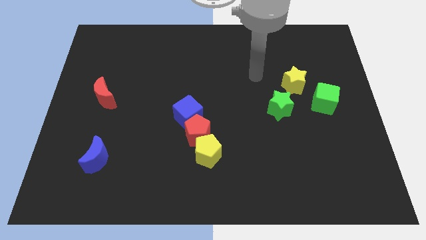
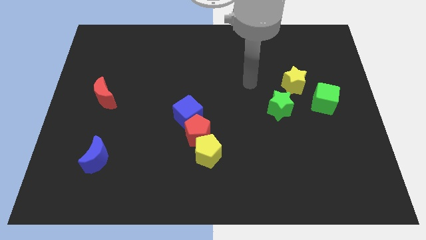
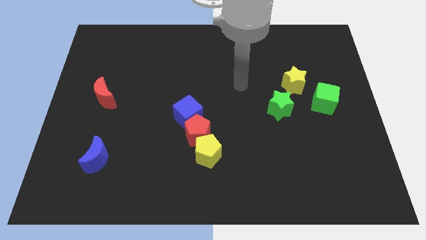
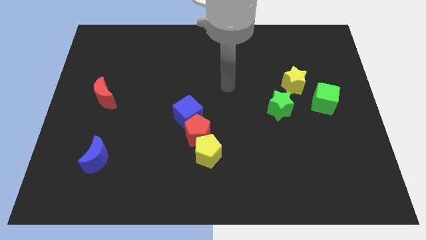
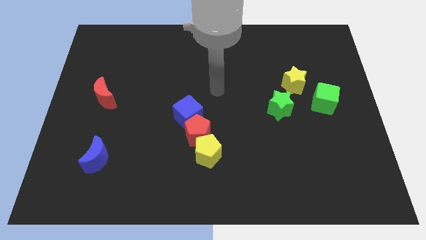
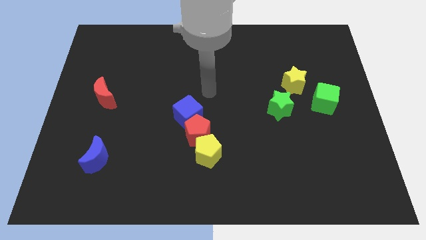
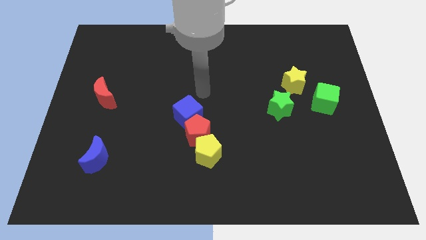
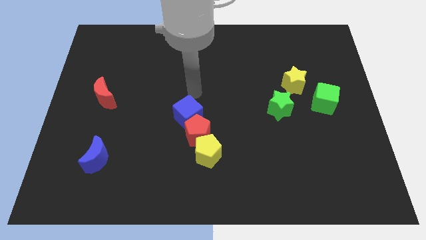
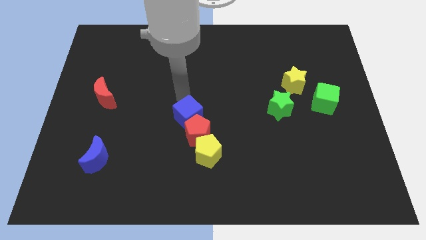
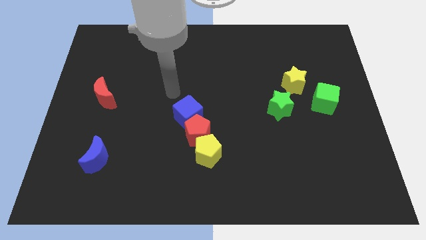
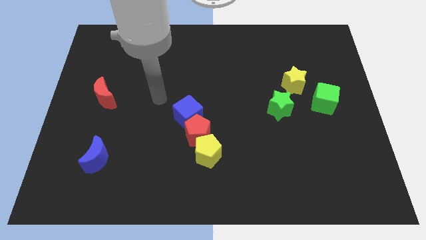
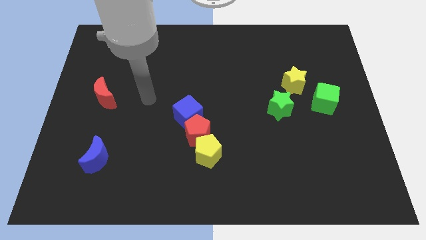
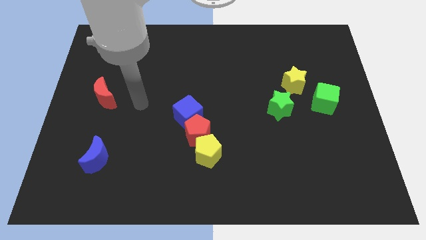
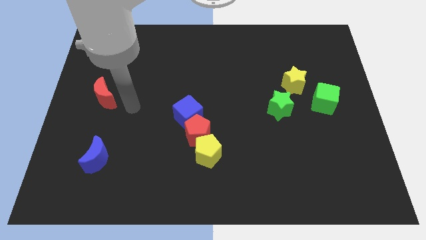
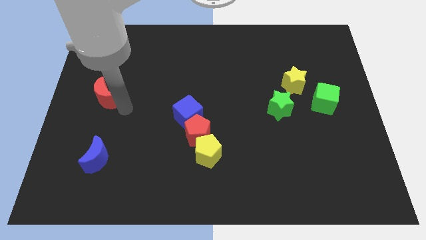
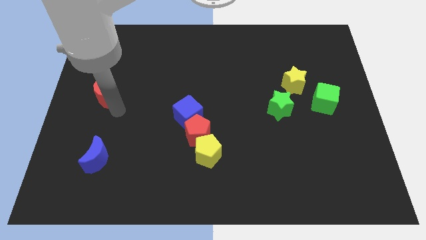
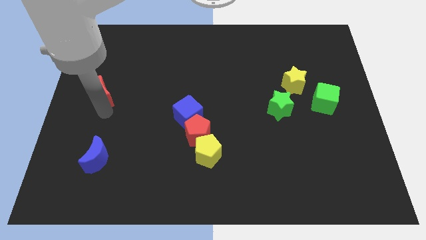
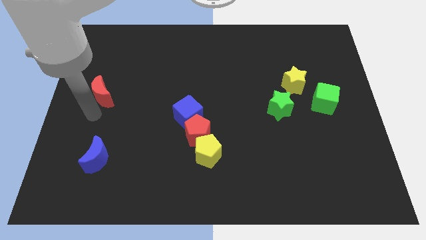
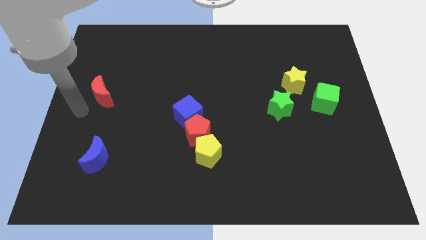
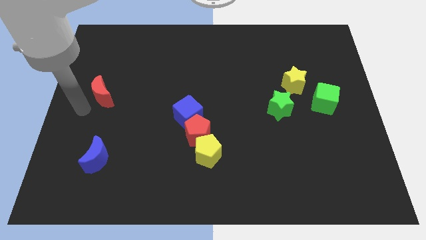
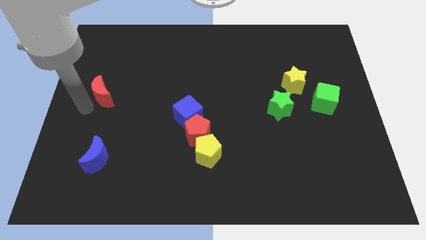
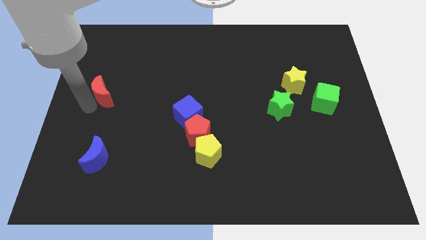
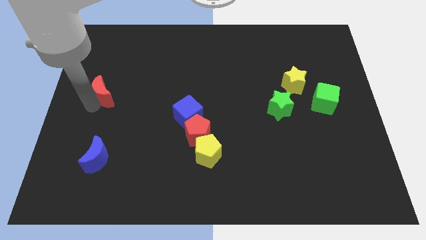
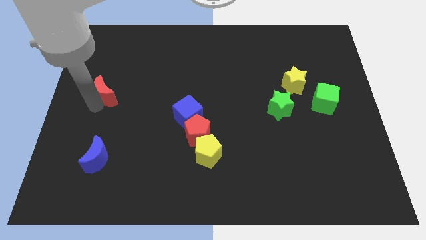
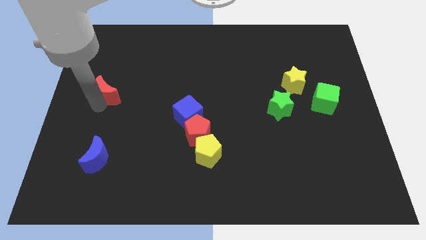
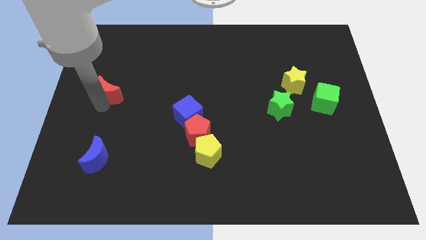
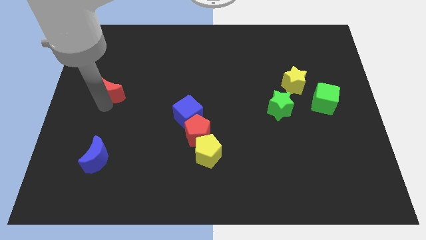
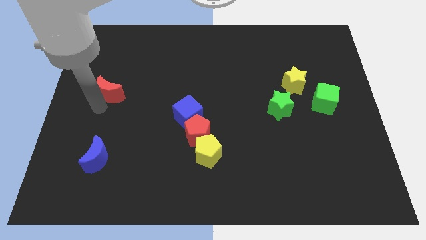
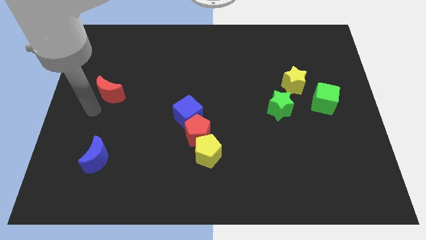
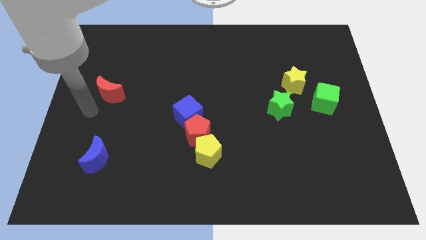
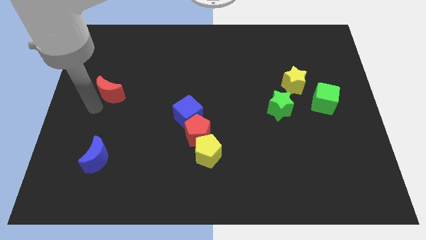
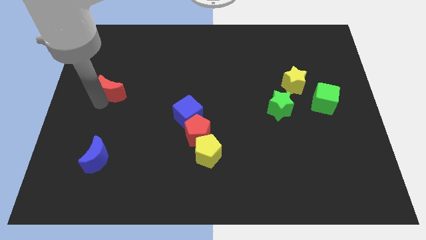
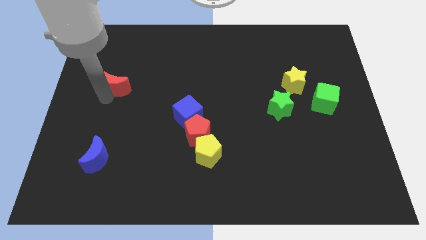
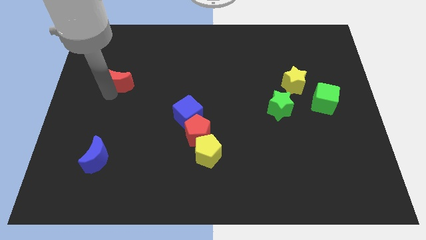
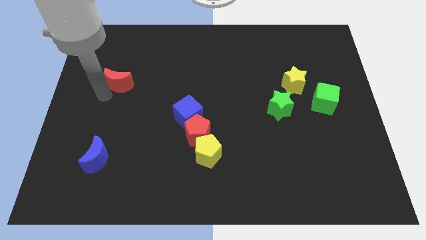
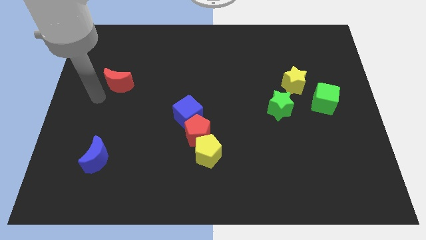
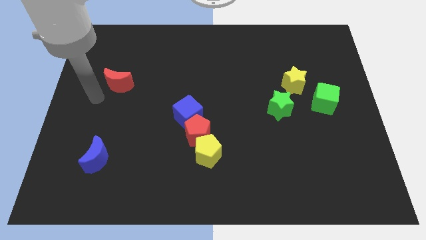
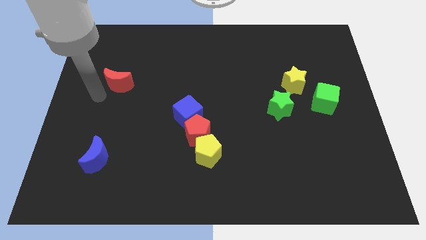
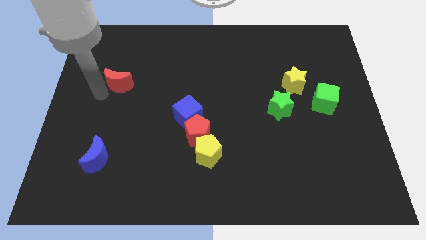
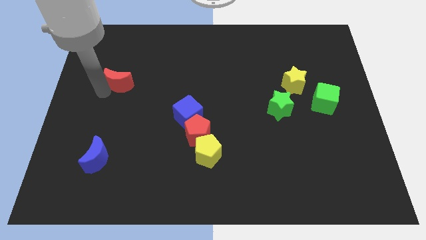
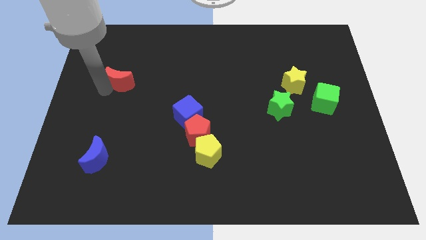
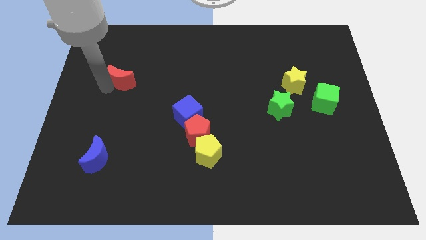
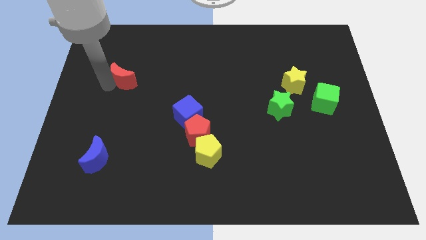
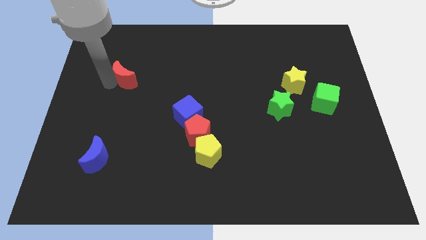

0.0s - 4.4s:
push the red moon up and then to the right a little bit

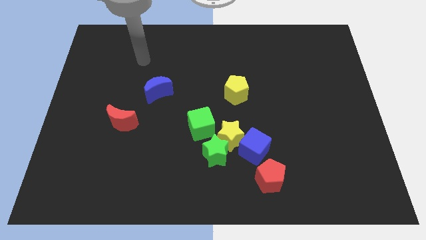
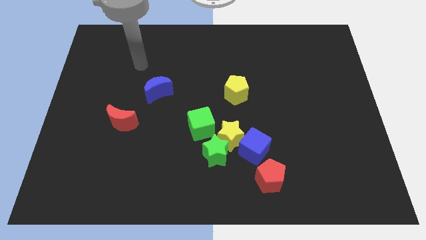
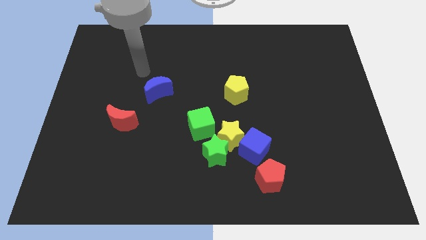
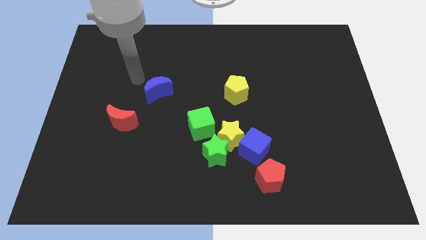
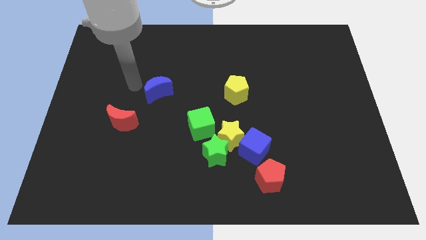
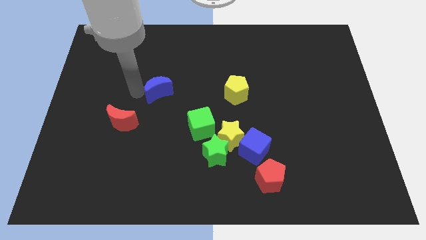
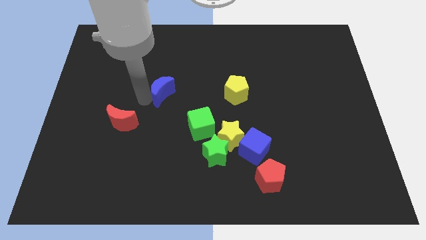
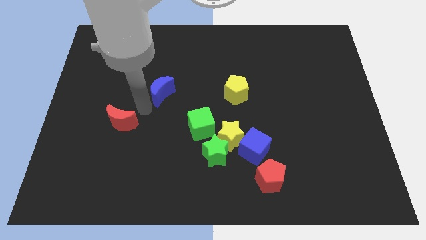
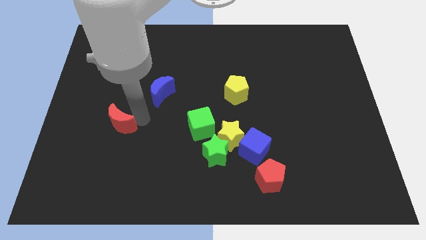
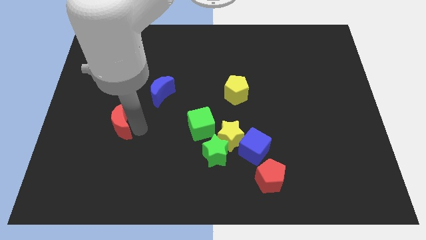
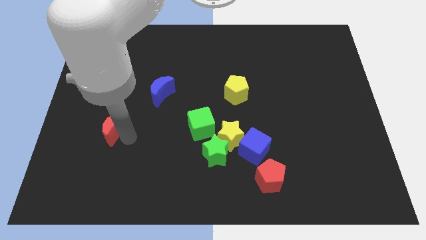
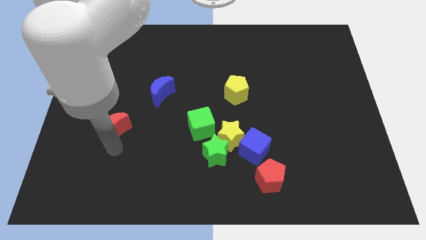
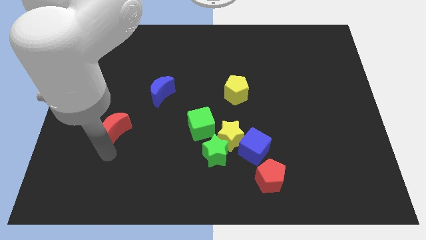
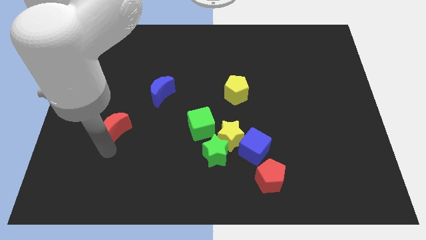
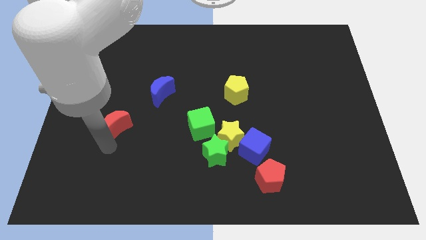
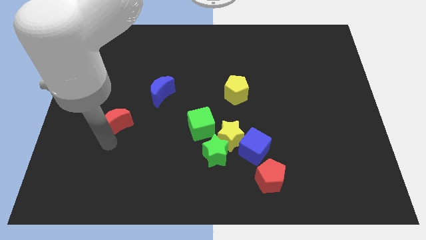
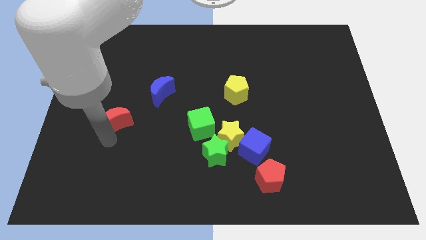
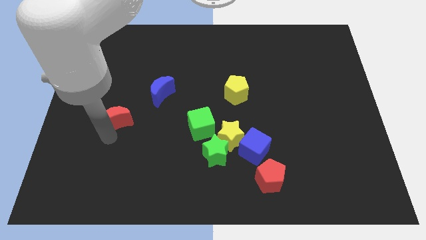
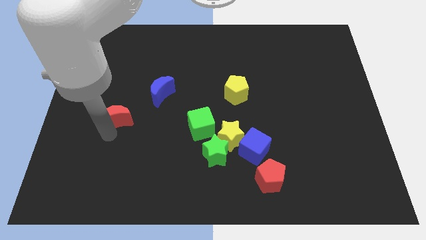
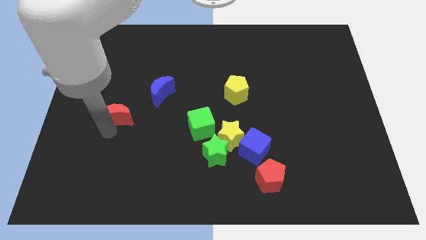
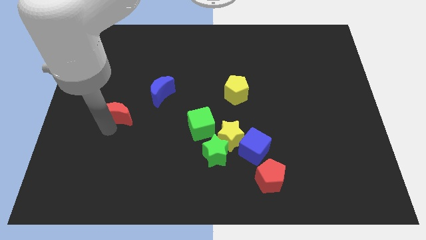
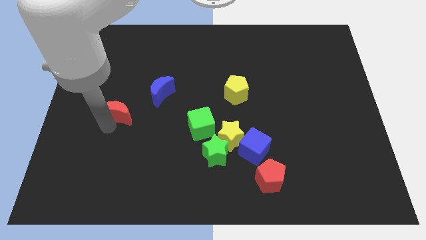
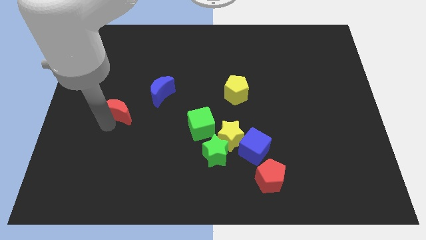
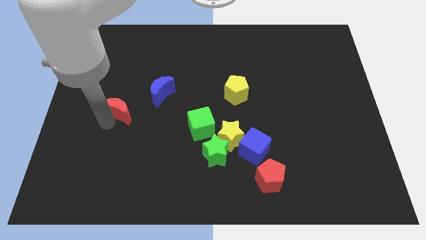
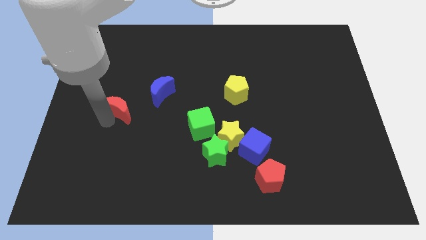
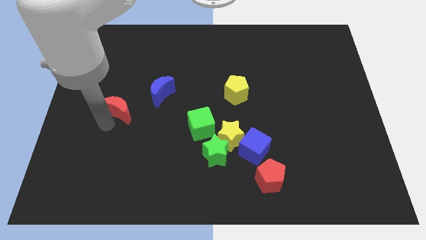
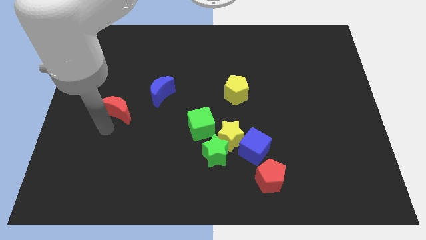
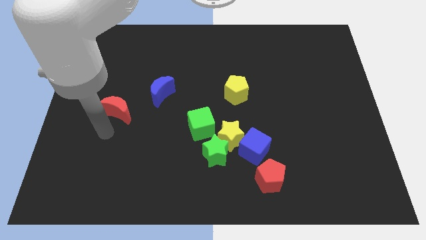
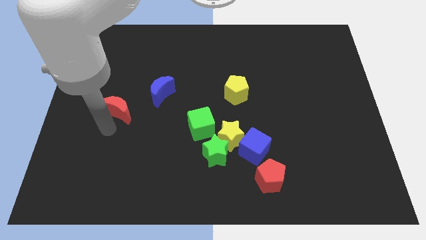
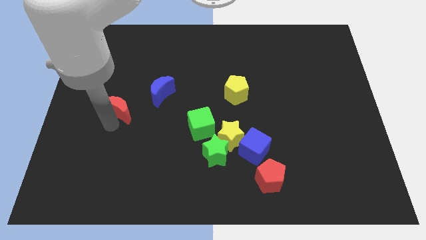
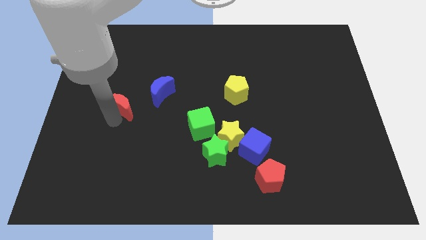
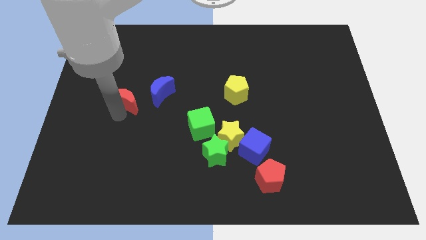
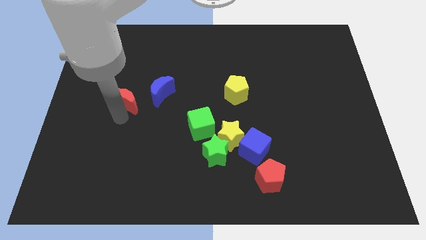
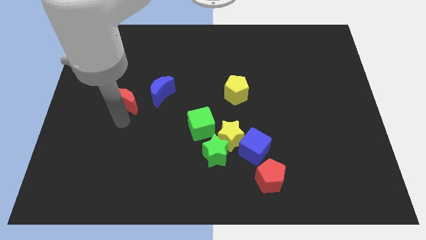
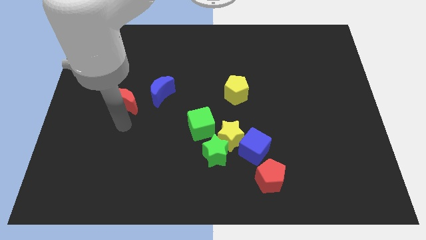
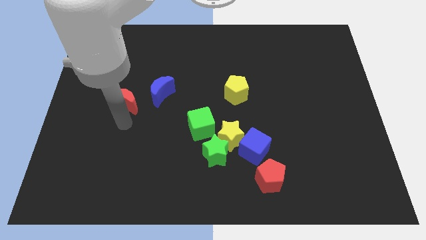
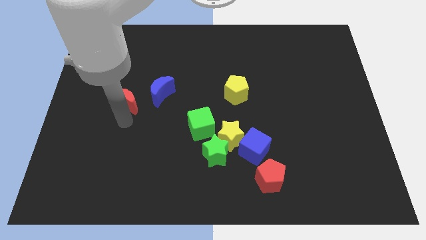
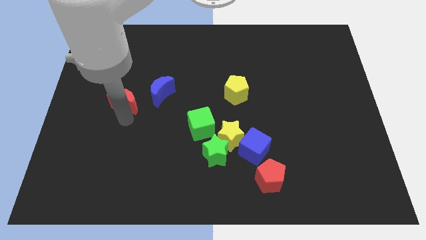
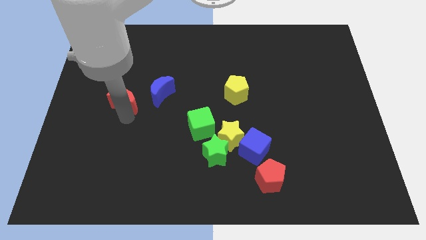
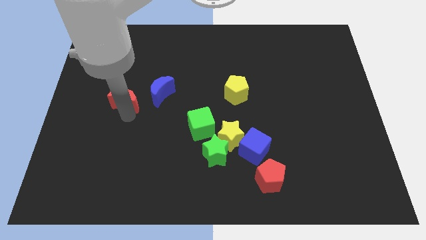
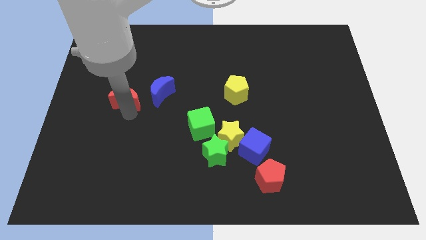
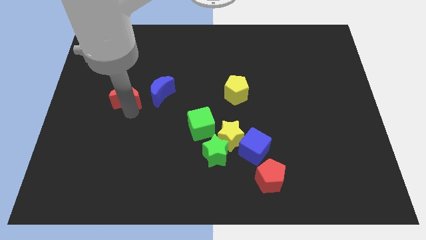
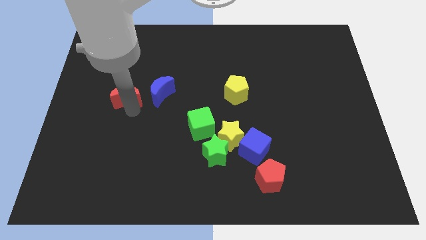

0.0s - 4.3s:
slightly push the red moon upwards
